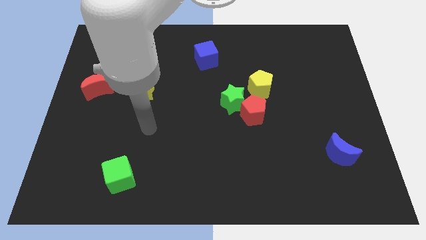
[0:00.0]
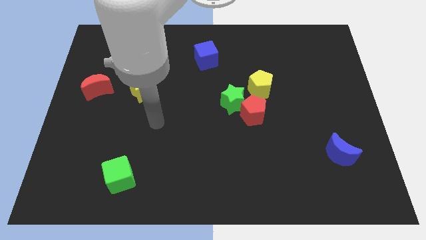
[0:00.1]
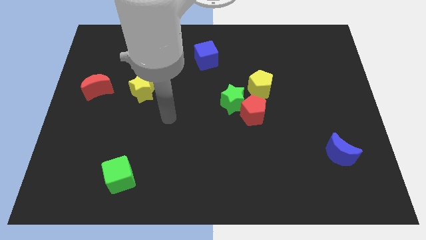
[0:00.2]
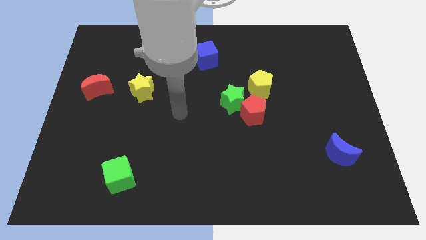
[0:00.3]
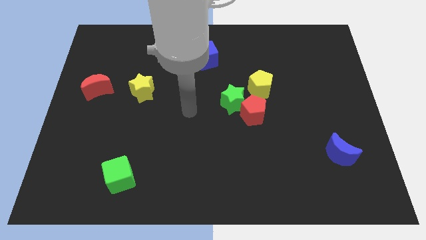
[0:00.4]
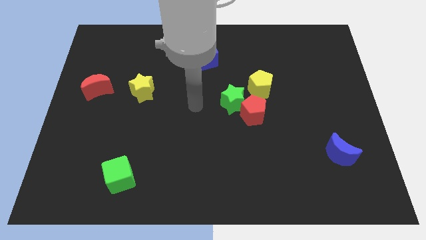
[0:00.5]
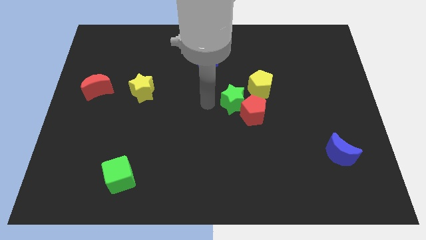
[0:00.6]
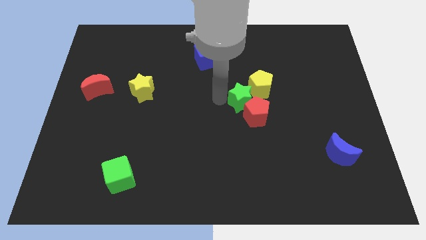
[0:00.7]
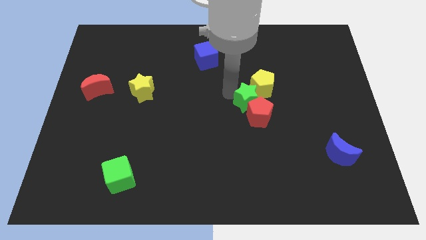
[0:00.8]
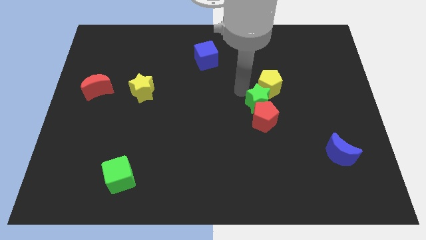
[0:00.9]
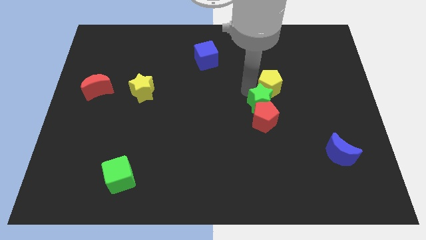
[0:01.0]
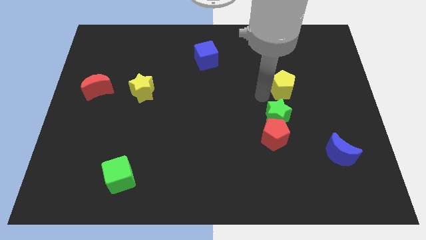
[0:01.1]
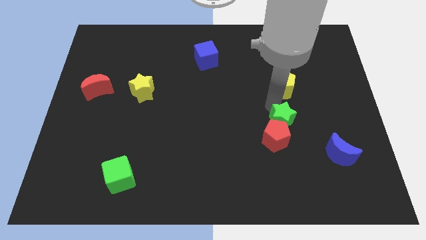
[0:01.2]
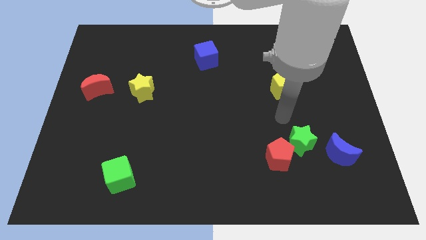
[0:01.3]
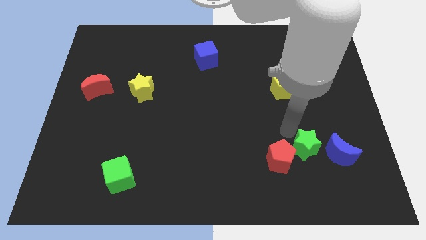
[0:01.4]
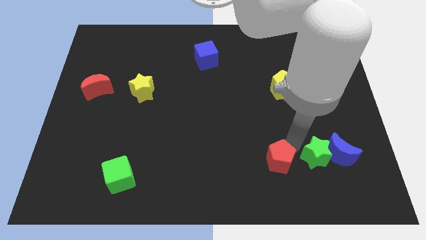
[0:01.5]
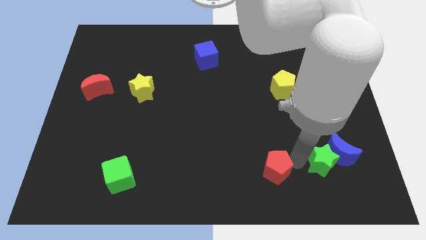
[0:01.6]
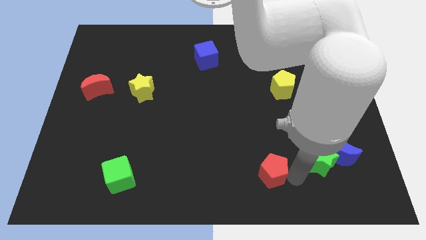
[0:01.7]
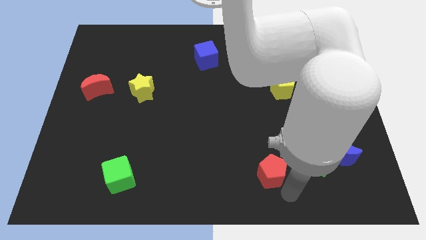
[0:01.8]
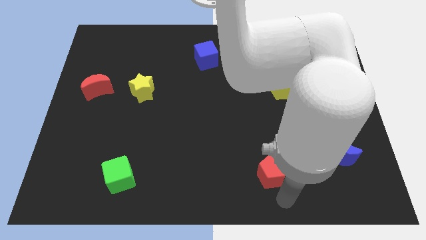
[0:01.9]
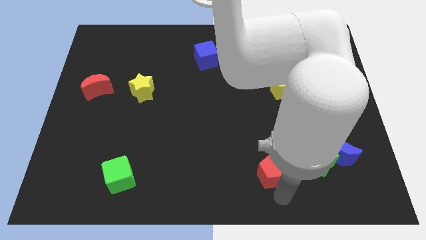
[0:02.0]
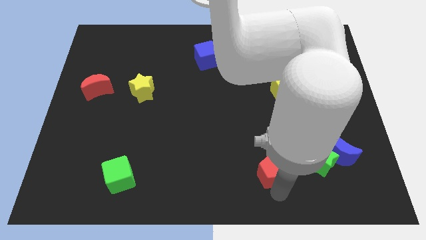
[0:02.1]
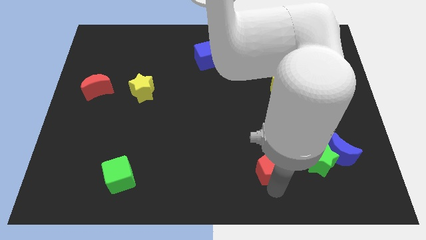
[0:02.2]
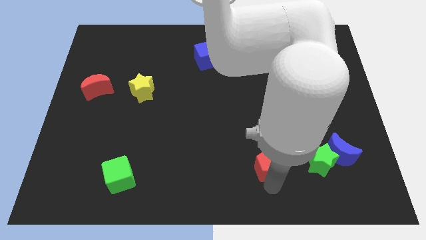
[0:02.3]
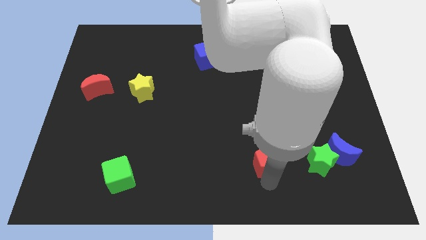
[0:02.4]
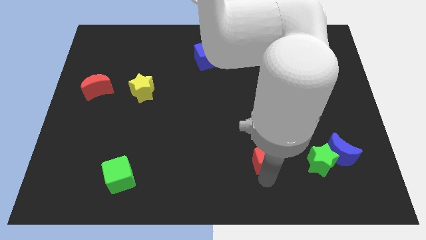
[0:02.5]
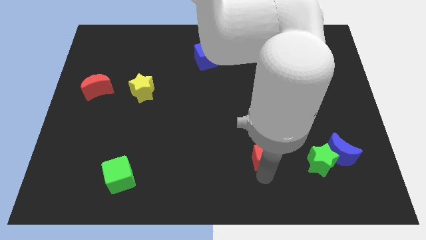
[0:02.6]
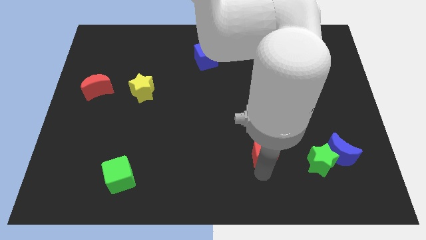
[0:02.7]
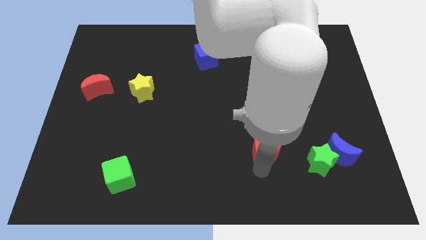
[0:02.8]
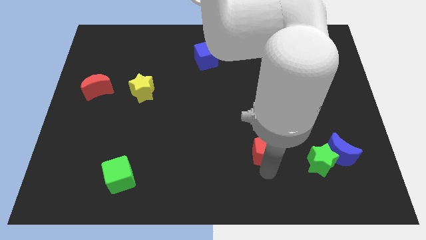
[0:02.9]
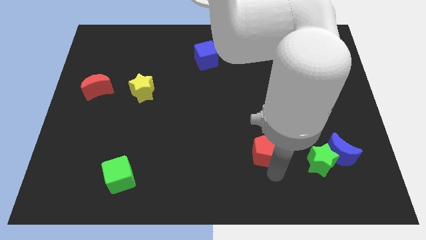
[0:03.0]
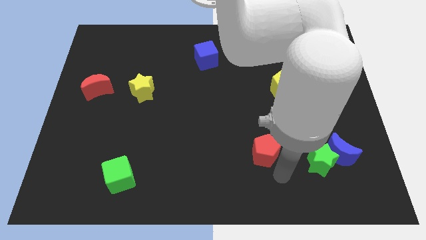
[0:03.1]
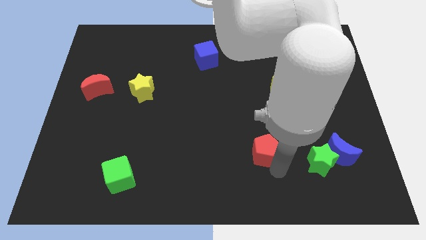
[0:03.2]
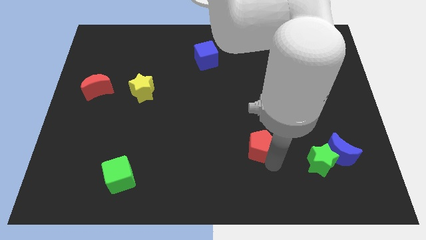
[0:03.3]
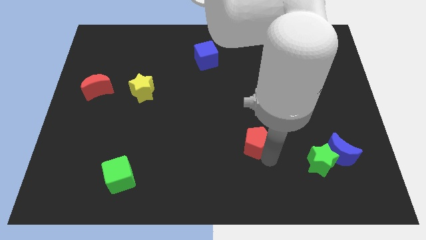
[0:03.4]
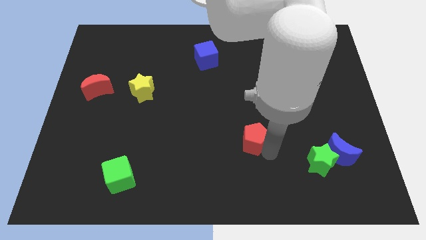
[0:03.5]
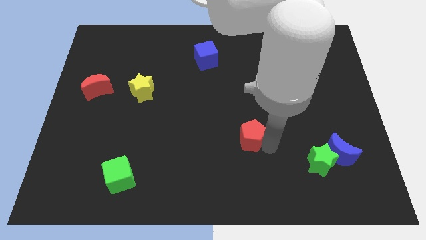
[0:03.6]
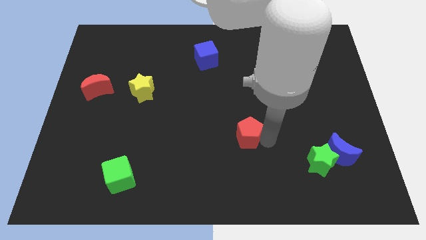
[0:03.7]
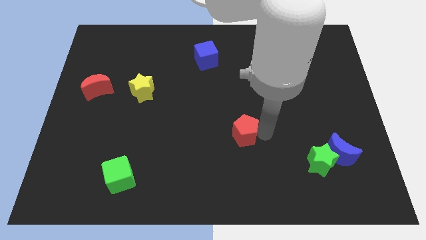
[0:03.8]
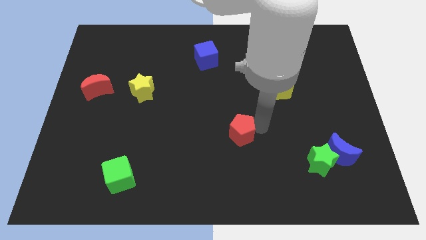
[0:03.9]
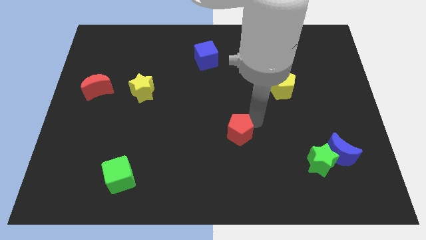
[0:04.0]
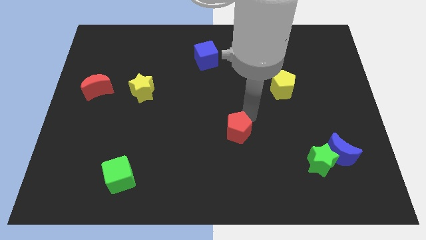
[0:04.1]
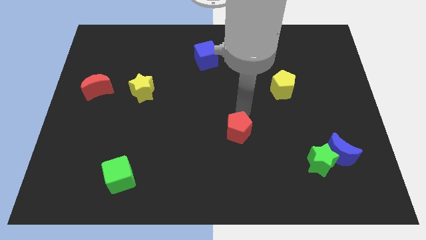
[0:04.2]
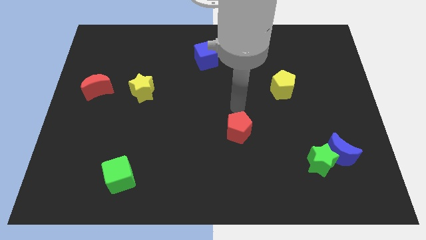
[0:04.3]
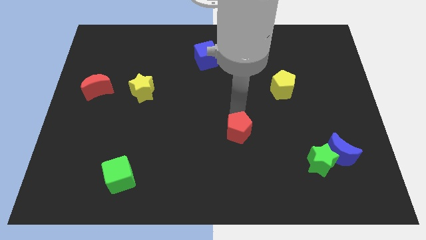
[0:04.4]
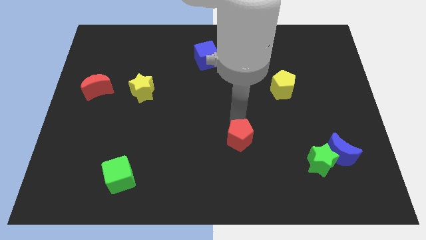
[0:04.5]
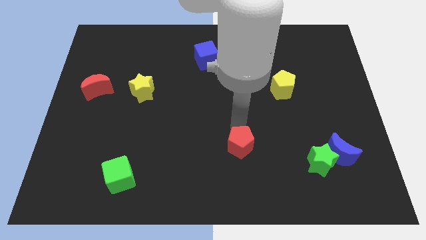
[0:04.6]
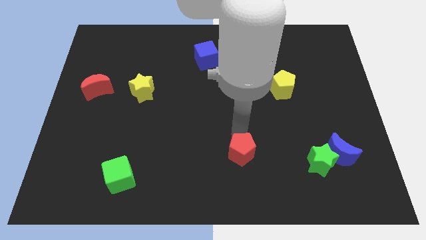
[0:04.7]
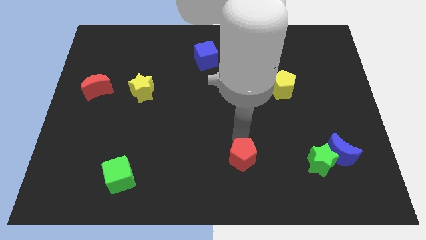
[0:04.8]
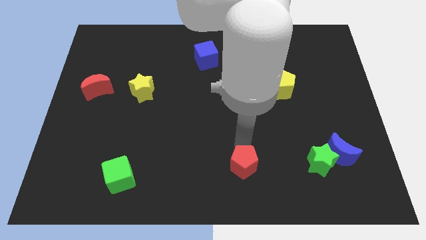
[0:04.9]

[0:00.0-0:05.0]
push the red pentagon to the bottom

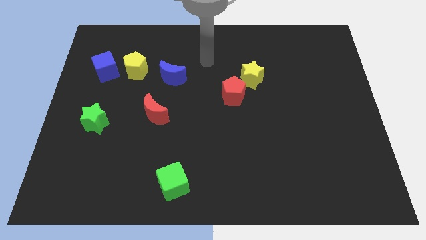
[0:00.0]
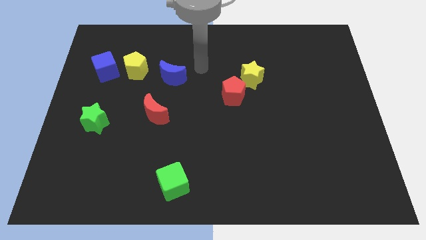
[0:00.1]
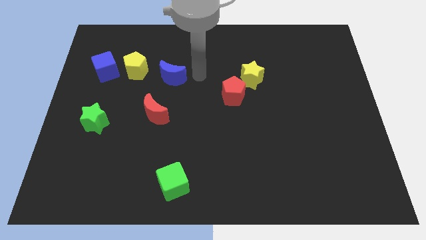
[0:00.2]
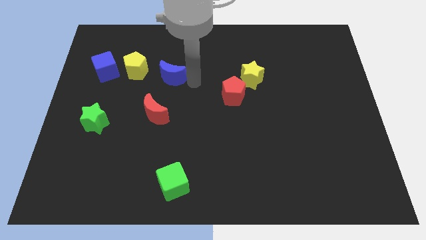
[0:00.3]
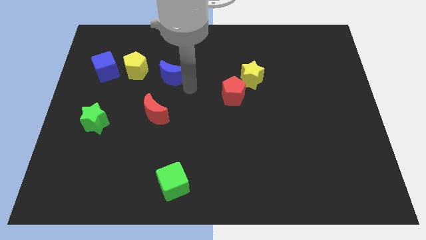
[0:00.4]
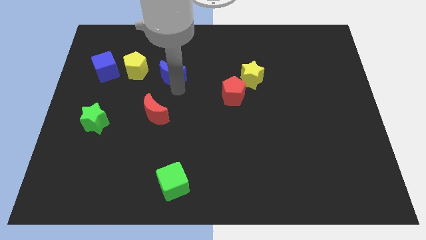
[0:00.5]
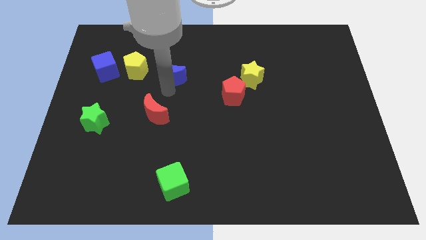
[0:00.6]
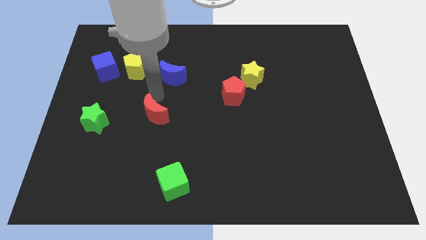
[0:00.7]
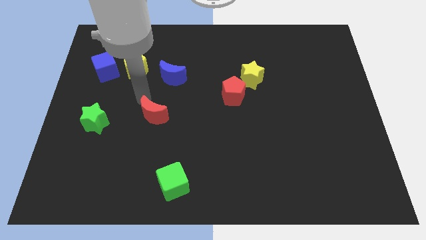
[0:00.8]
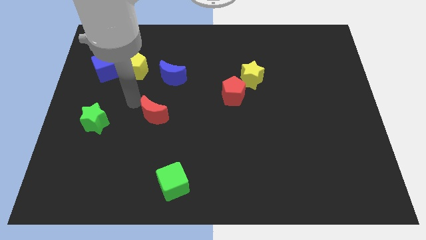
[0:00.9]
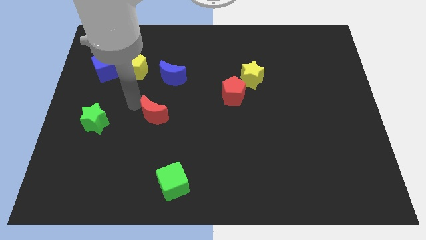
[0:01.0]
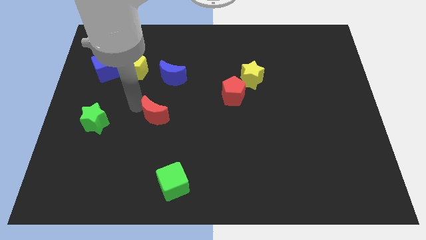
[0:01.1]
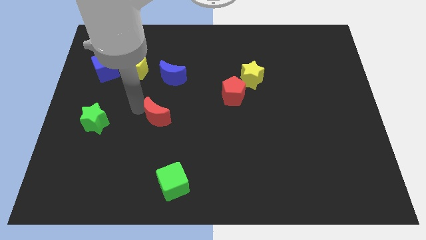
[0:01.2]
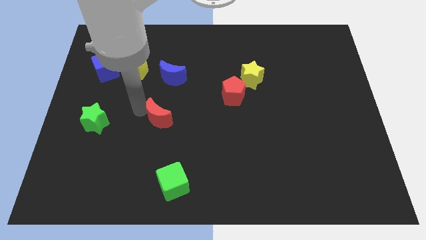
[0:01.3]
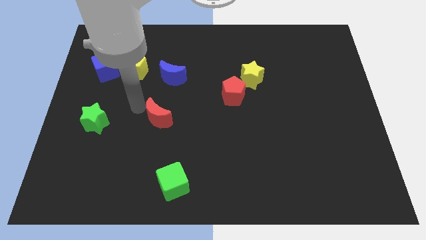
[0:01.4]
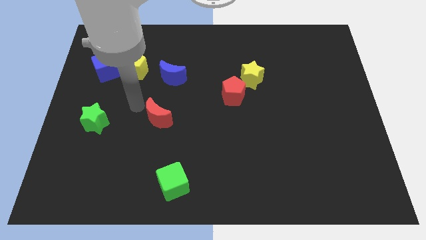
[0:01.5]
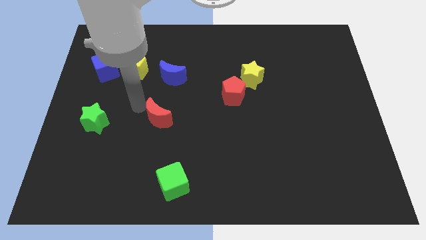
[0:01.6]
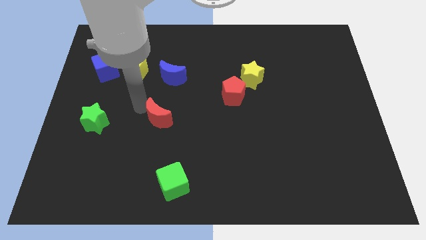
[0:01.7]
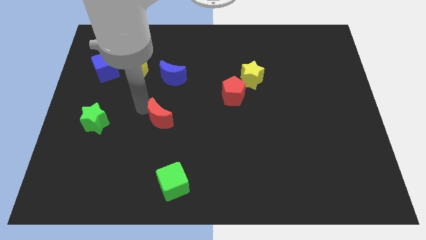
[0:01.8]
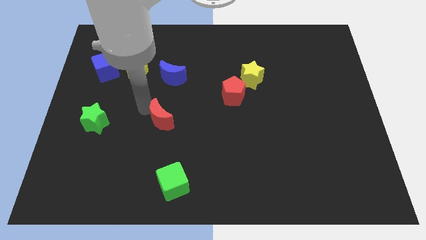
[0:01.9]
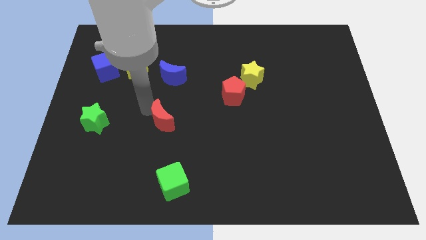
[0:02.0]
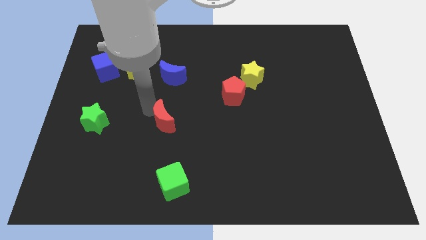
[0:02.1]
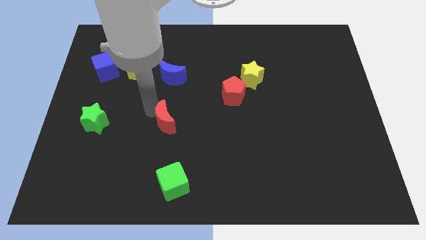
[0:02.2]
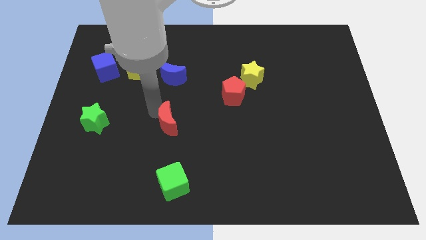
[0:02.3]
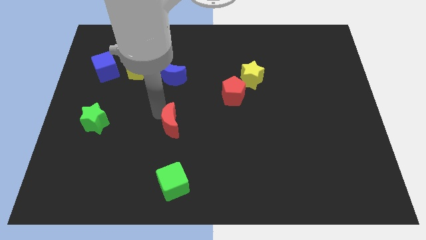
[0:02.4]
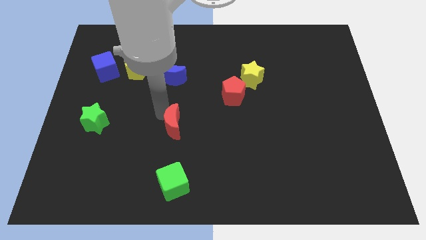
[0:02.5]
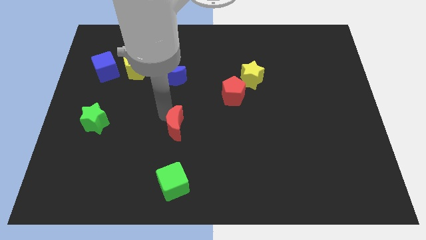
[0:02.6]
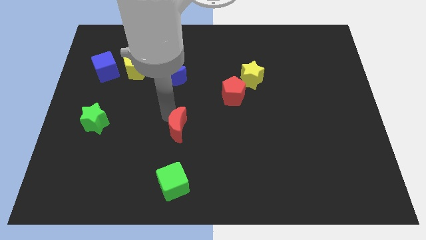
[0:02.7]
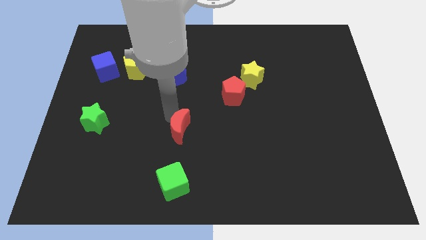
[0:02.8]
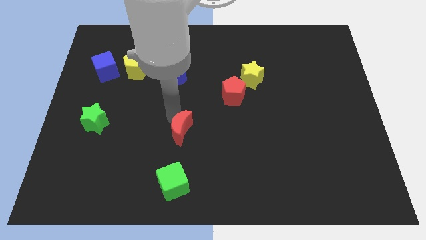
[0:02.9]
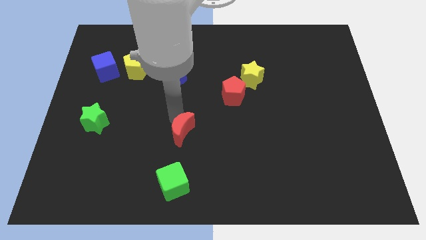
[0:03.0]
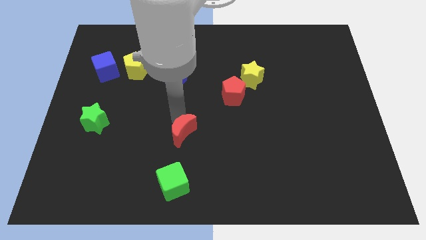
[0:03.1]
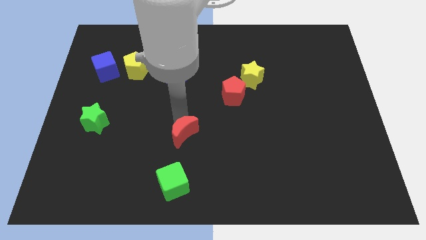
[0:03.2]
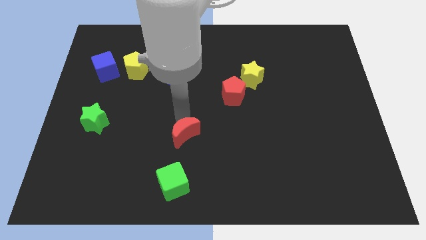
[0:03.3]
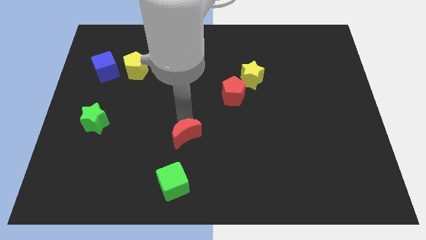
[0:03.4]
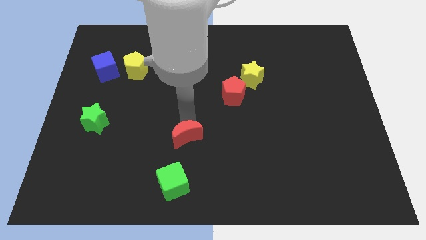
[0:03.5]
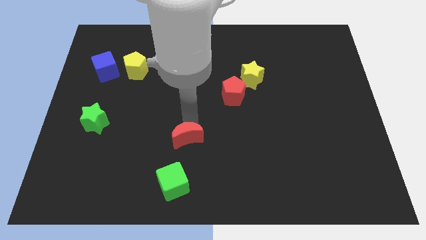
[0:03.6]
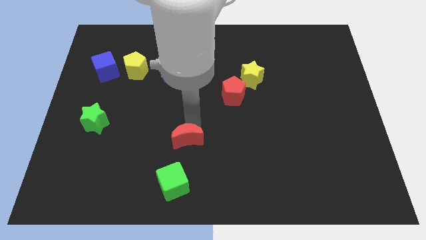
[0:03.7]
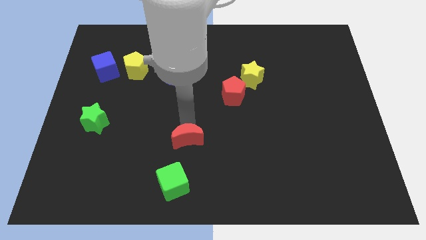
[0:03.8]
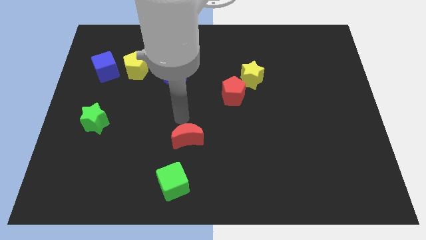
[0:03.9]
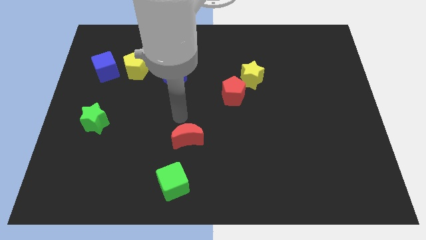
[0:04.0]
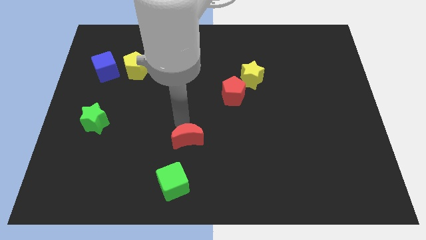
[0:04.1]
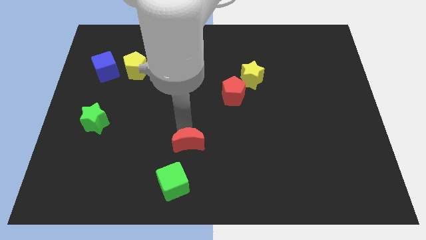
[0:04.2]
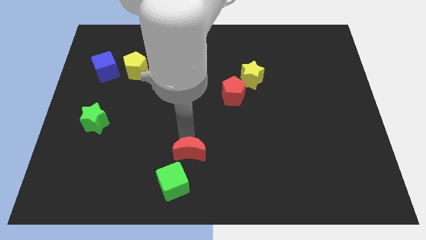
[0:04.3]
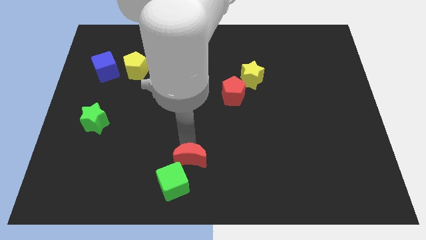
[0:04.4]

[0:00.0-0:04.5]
put the red moon to the bottom side
